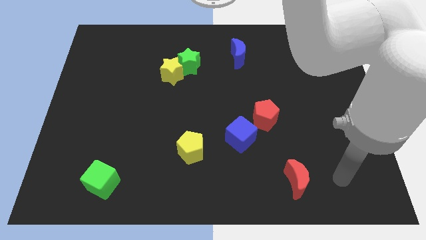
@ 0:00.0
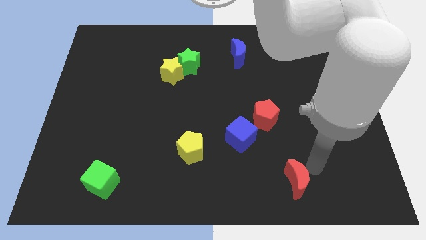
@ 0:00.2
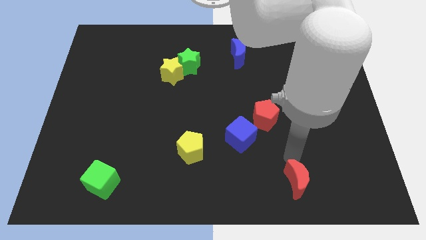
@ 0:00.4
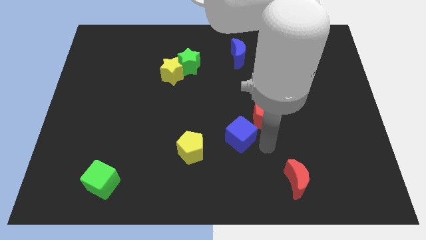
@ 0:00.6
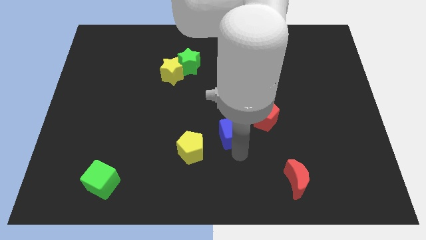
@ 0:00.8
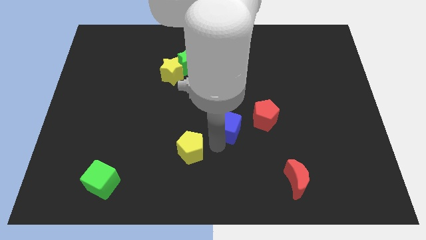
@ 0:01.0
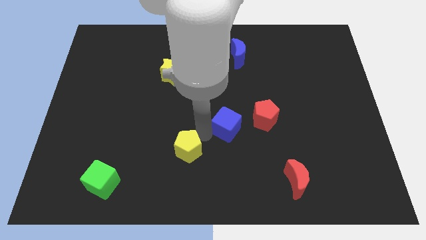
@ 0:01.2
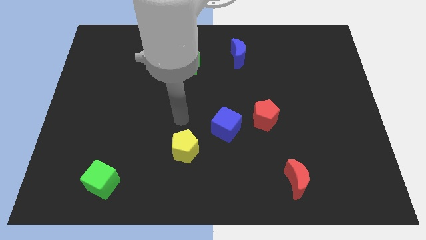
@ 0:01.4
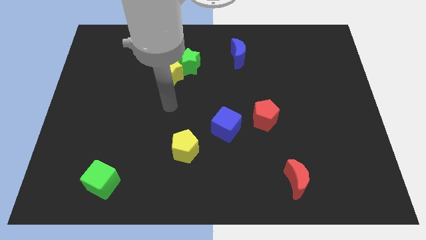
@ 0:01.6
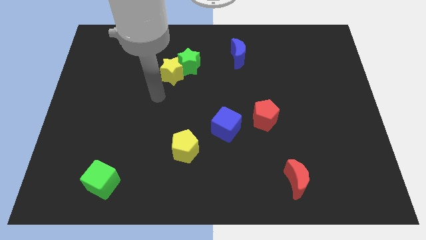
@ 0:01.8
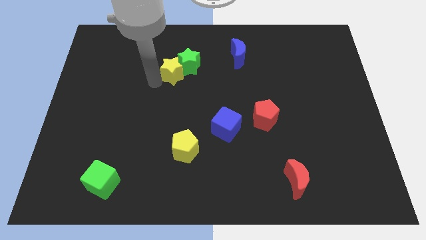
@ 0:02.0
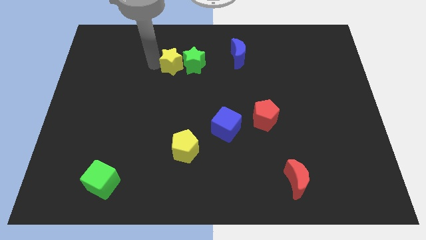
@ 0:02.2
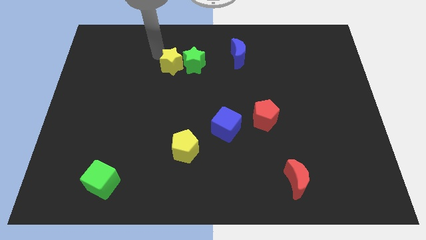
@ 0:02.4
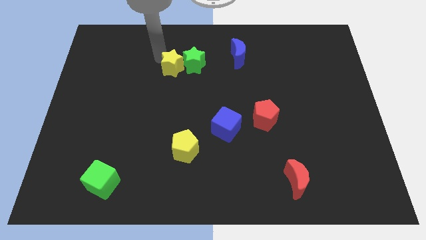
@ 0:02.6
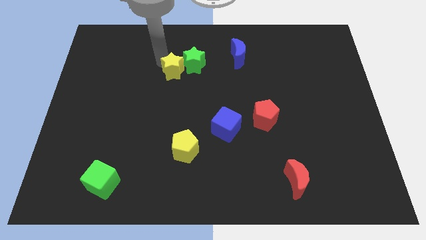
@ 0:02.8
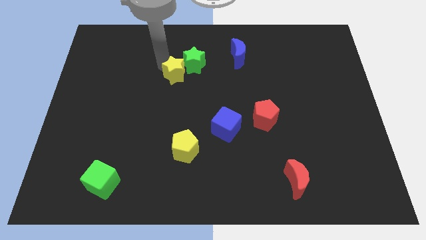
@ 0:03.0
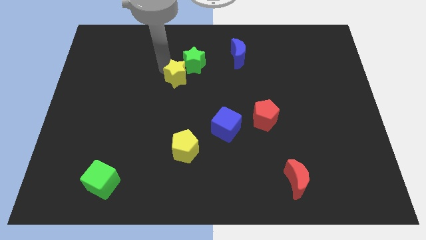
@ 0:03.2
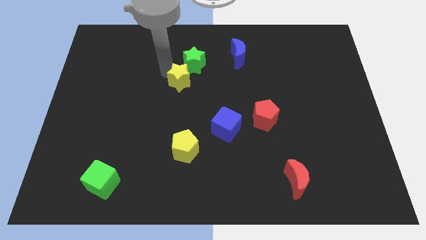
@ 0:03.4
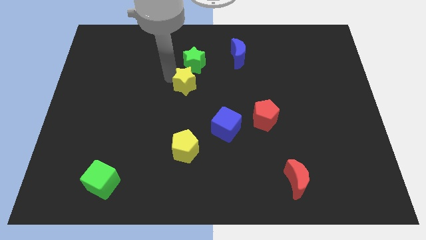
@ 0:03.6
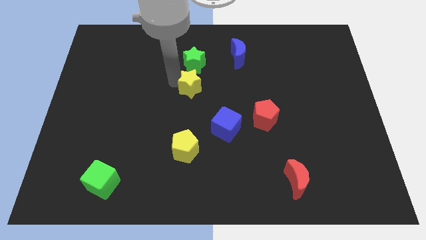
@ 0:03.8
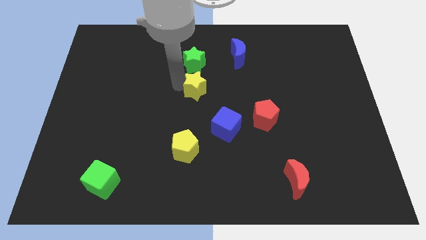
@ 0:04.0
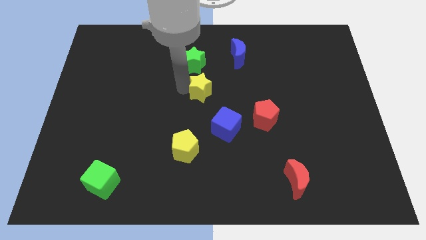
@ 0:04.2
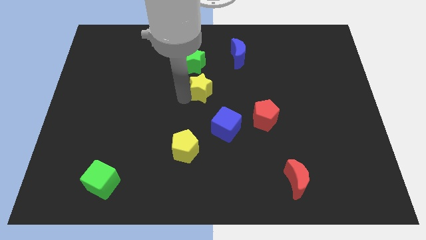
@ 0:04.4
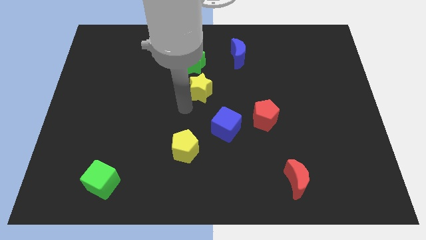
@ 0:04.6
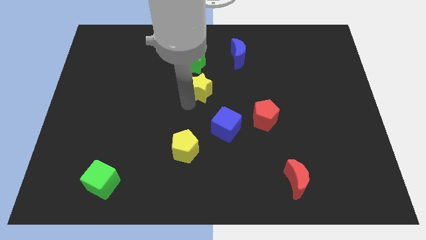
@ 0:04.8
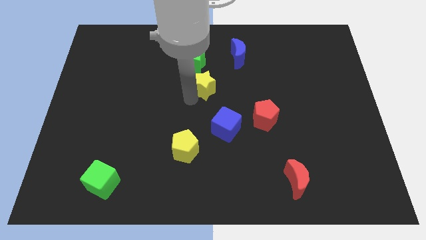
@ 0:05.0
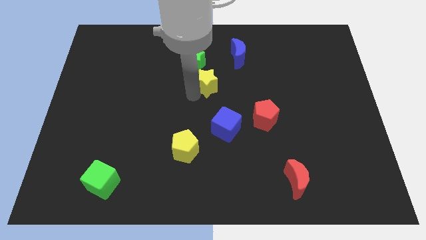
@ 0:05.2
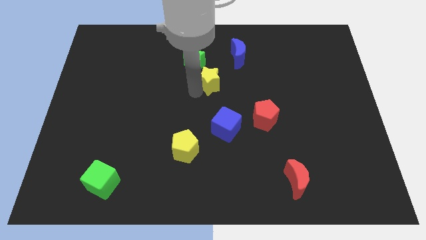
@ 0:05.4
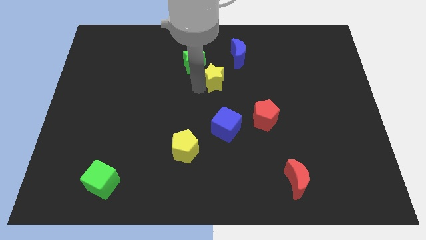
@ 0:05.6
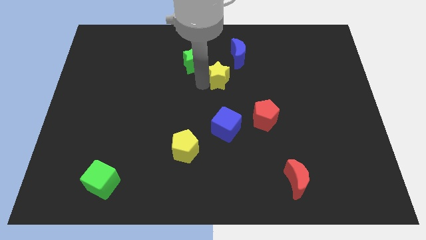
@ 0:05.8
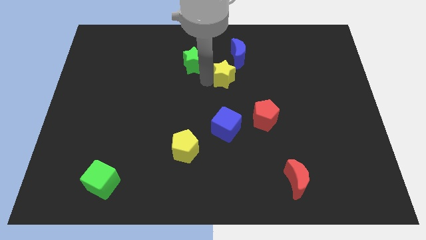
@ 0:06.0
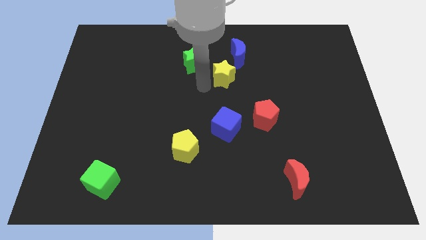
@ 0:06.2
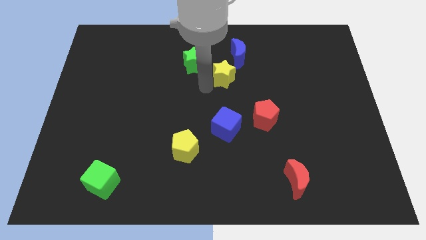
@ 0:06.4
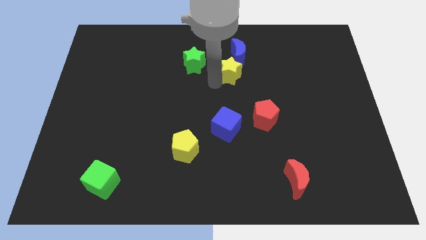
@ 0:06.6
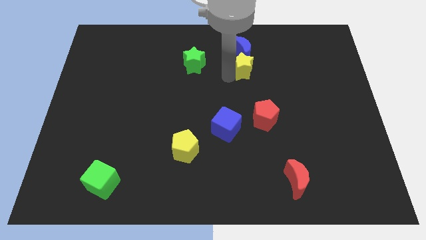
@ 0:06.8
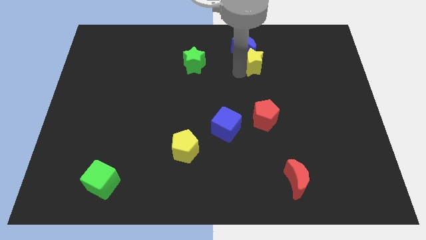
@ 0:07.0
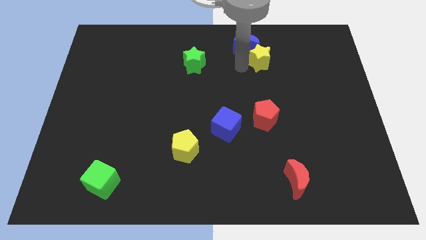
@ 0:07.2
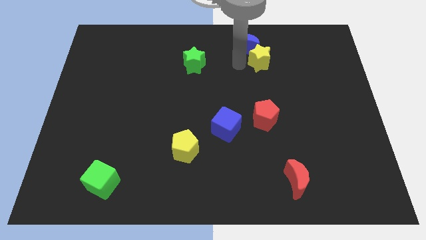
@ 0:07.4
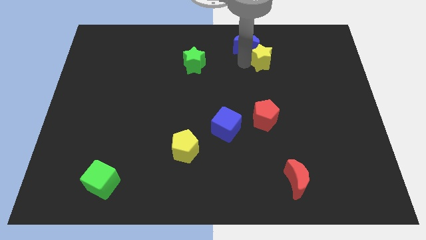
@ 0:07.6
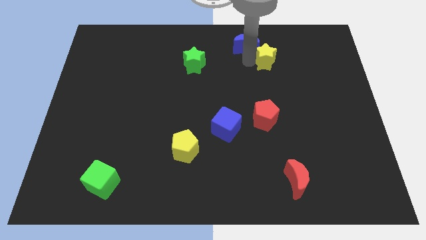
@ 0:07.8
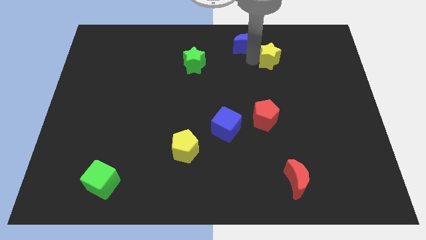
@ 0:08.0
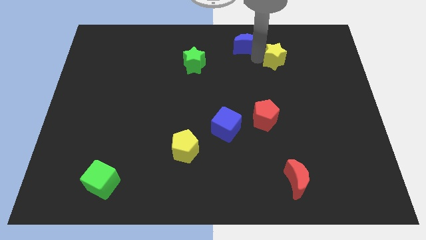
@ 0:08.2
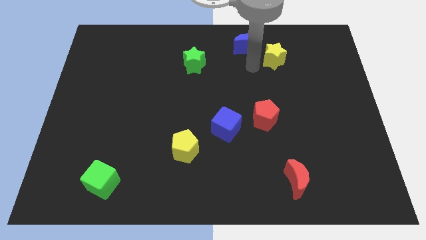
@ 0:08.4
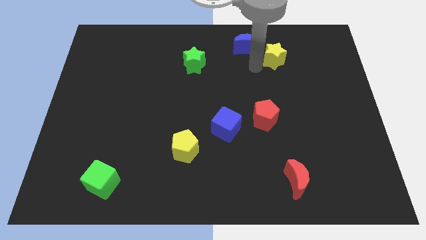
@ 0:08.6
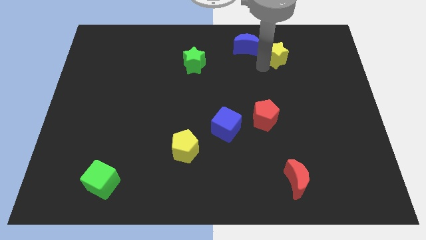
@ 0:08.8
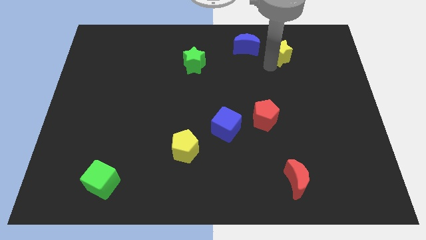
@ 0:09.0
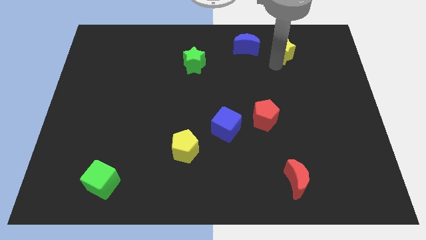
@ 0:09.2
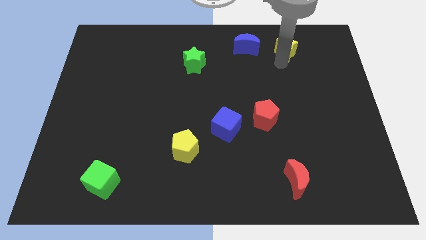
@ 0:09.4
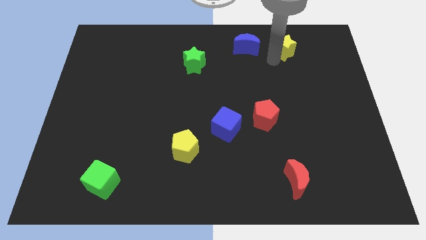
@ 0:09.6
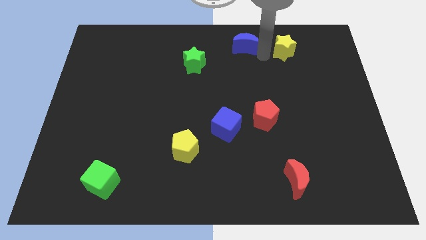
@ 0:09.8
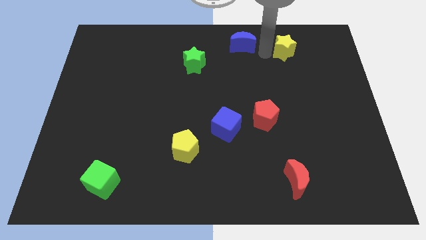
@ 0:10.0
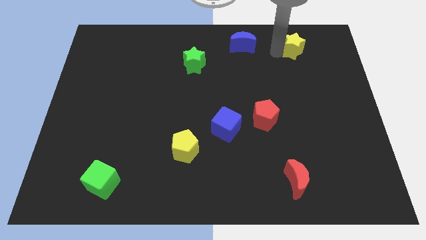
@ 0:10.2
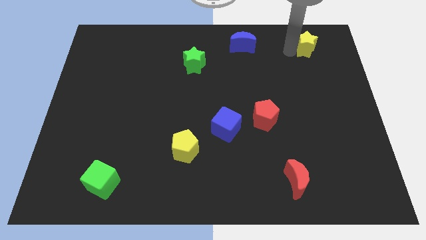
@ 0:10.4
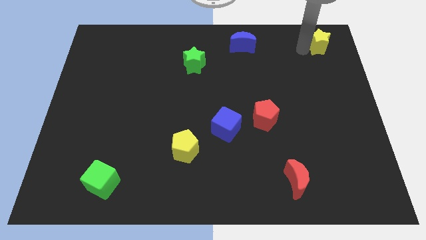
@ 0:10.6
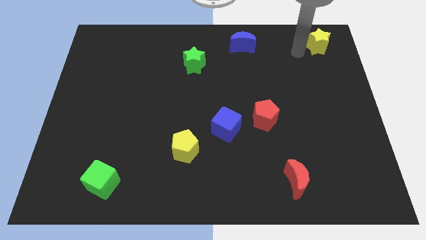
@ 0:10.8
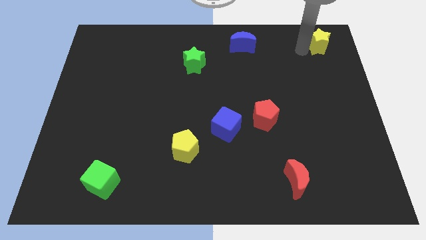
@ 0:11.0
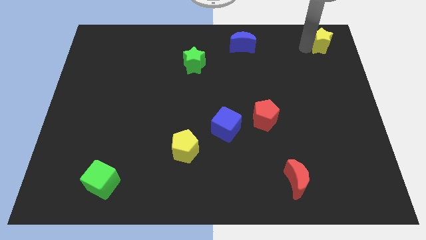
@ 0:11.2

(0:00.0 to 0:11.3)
slide the yellow star to the upper right corner
